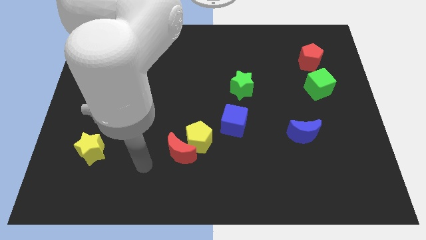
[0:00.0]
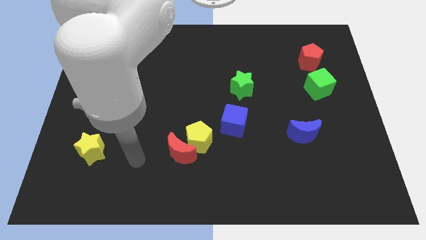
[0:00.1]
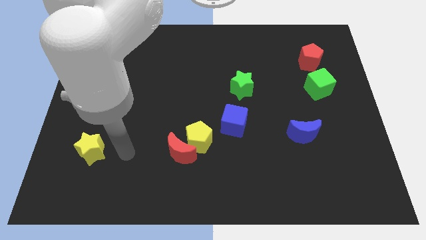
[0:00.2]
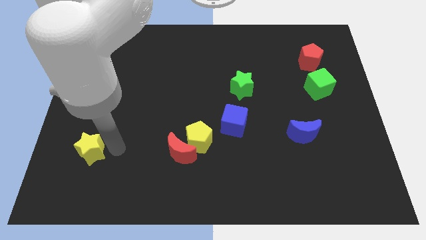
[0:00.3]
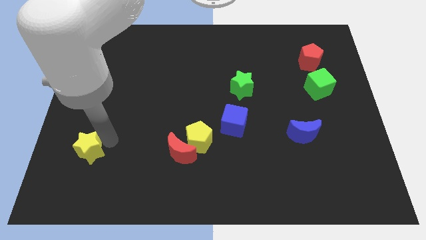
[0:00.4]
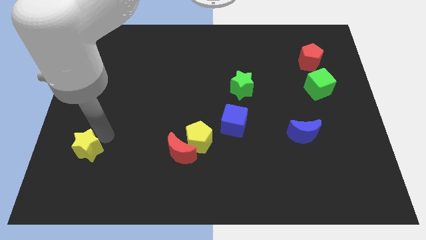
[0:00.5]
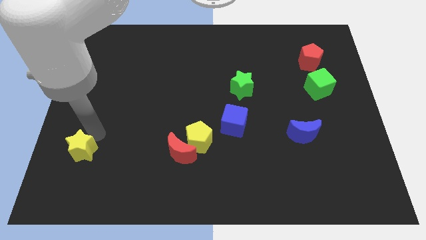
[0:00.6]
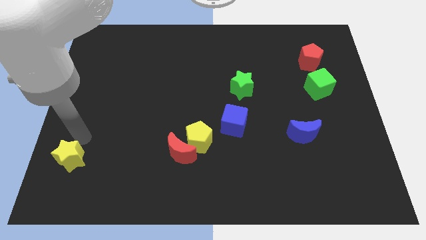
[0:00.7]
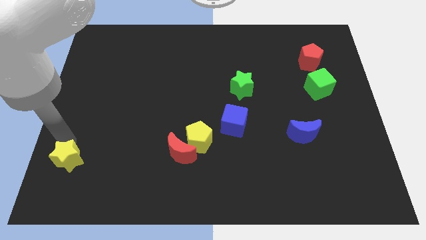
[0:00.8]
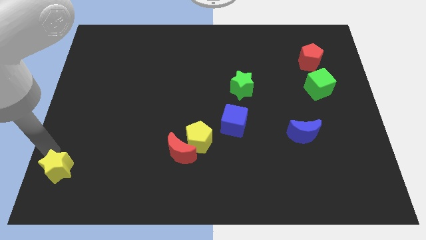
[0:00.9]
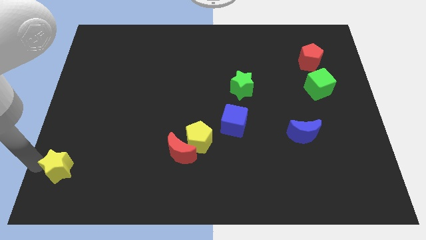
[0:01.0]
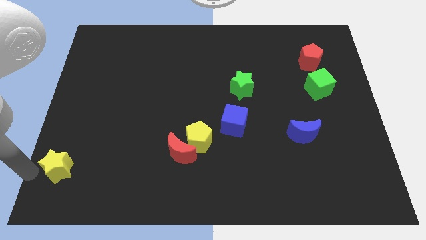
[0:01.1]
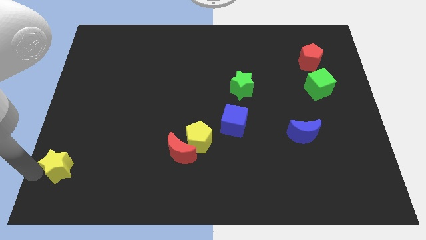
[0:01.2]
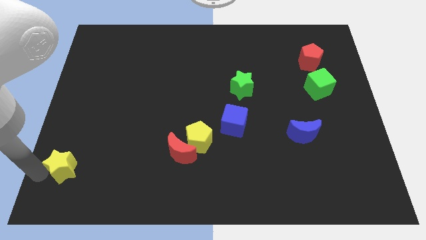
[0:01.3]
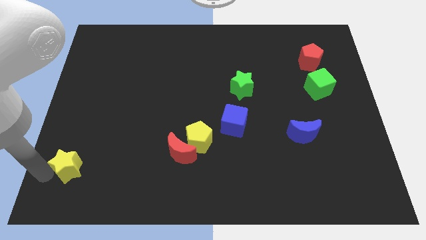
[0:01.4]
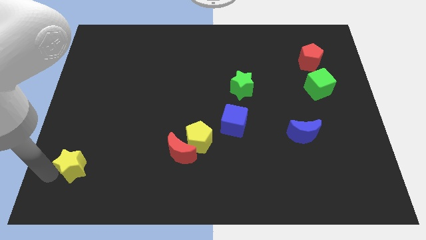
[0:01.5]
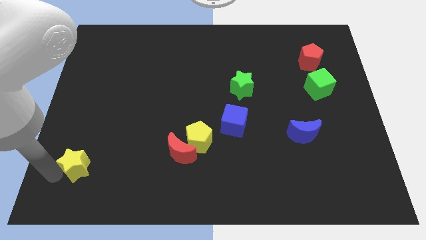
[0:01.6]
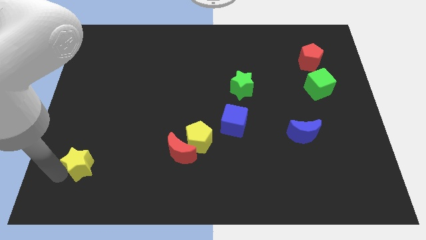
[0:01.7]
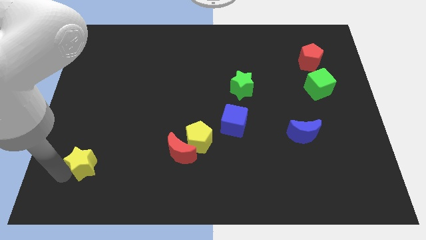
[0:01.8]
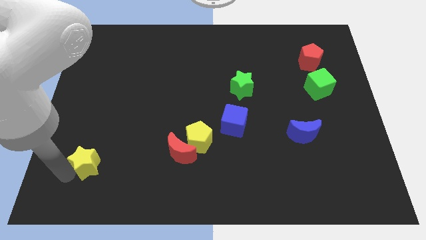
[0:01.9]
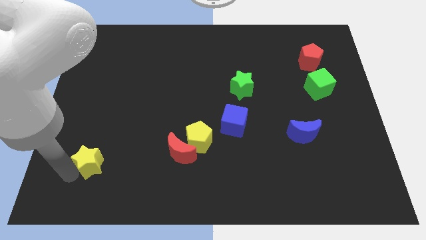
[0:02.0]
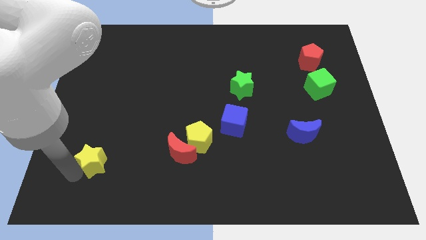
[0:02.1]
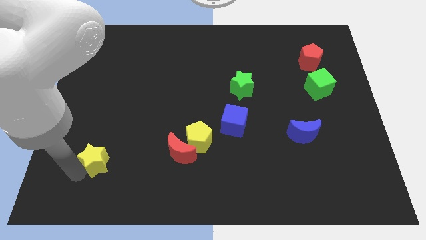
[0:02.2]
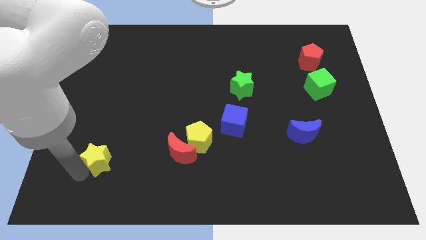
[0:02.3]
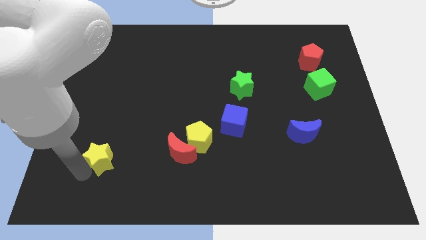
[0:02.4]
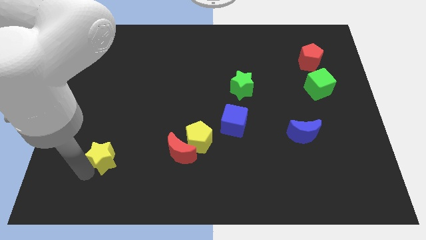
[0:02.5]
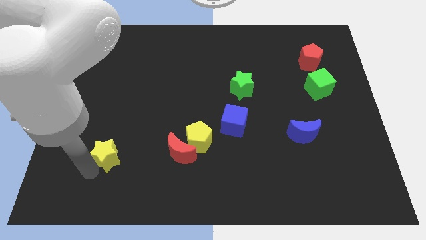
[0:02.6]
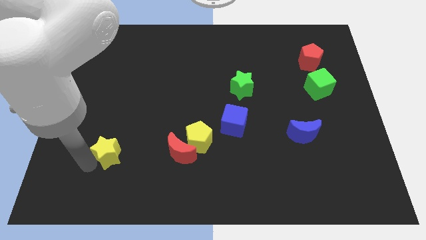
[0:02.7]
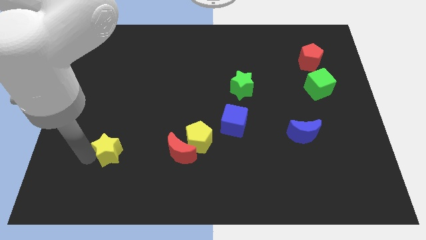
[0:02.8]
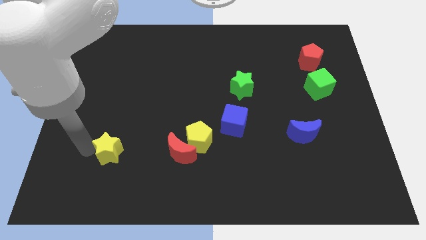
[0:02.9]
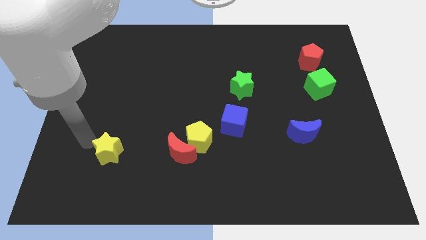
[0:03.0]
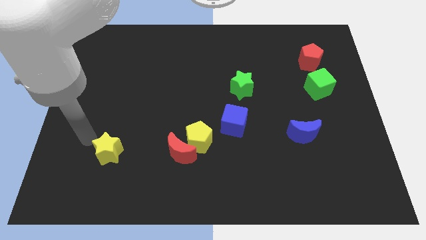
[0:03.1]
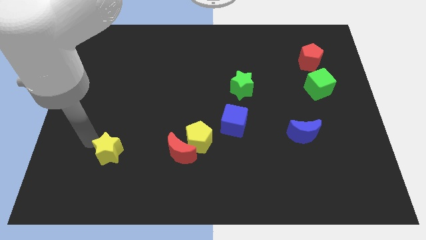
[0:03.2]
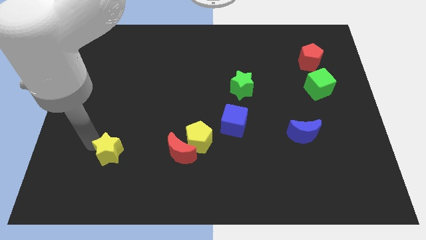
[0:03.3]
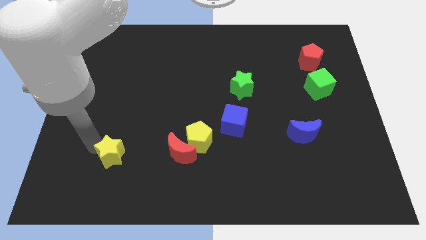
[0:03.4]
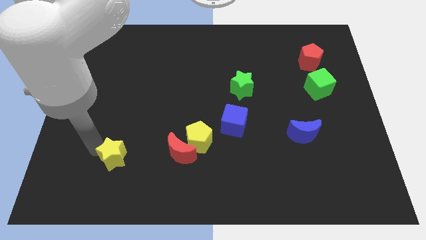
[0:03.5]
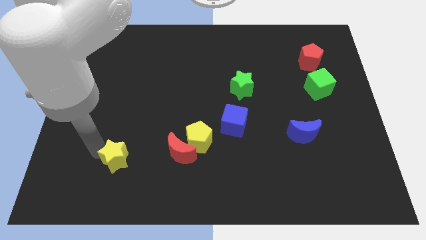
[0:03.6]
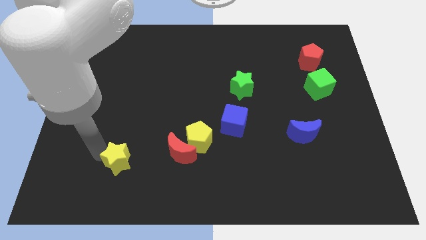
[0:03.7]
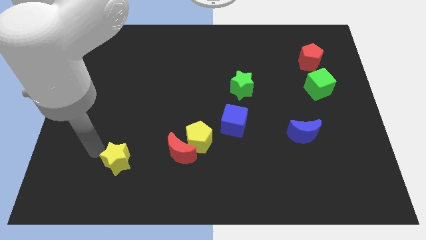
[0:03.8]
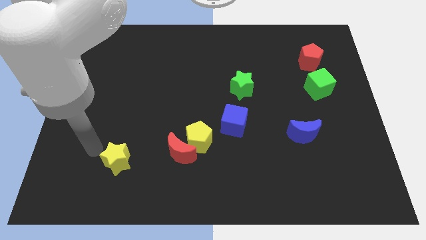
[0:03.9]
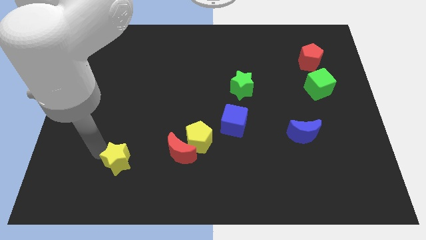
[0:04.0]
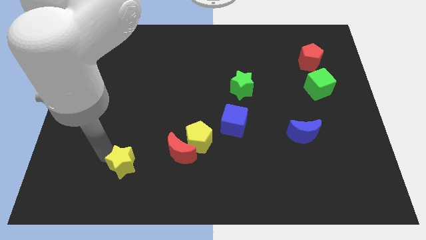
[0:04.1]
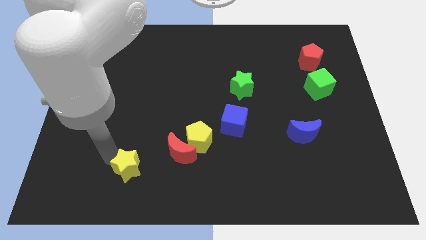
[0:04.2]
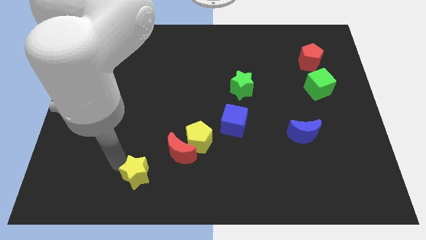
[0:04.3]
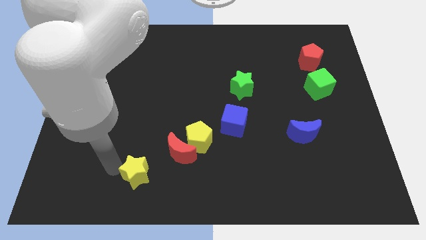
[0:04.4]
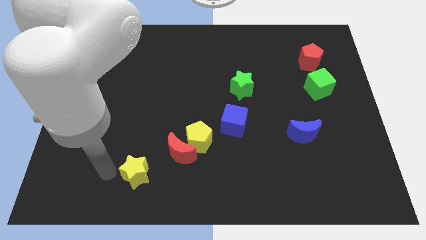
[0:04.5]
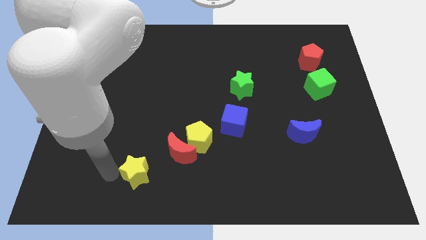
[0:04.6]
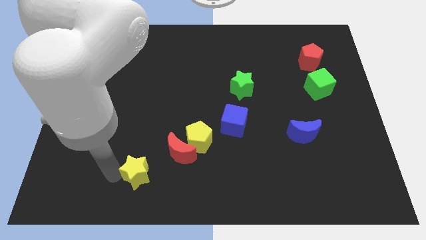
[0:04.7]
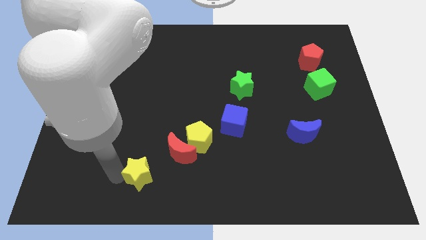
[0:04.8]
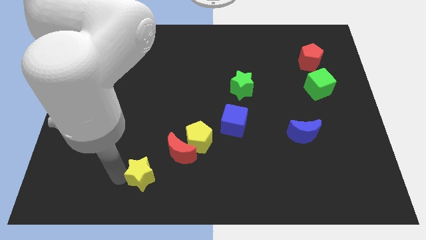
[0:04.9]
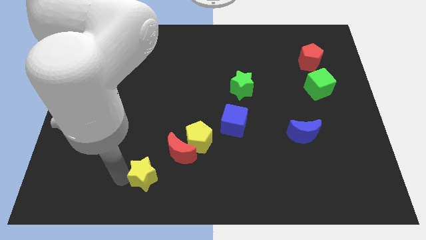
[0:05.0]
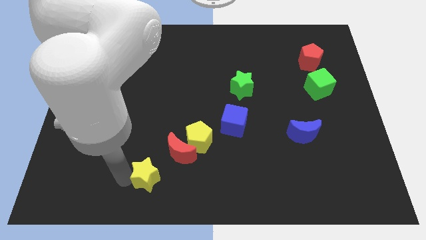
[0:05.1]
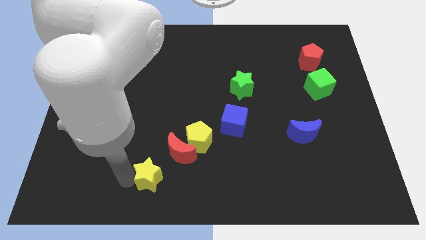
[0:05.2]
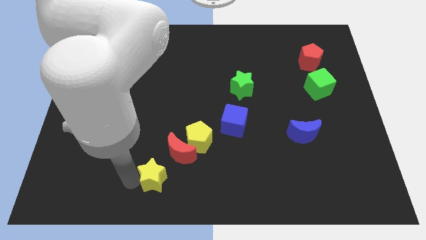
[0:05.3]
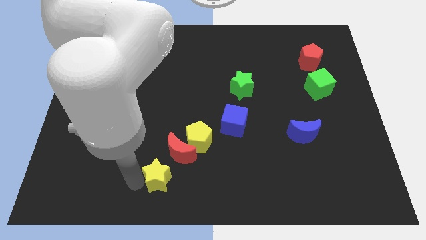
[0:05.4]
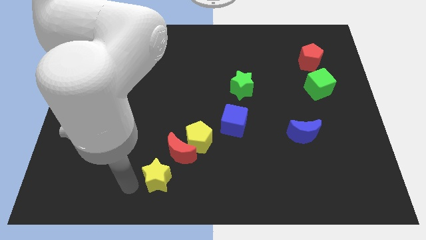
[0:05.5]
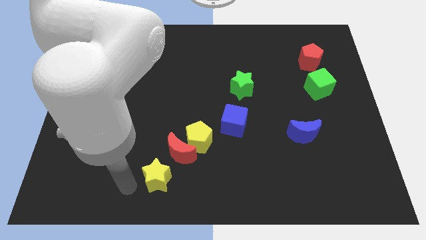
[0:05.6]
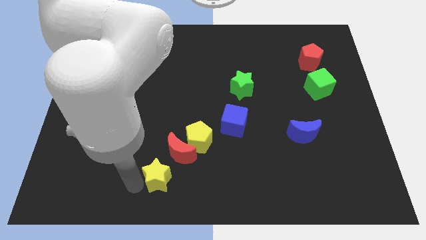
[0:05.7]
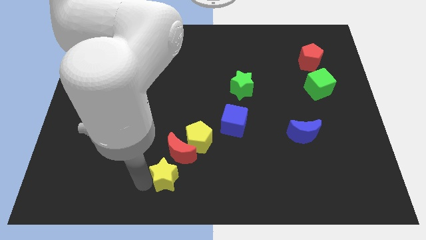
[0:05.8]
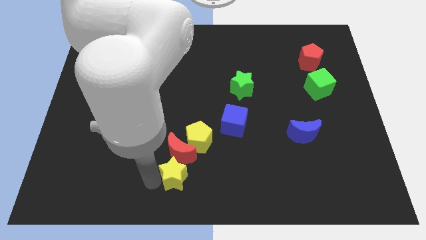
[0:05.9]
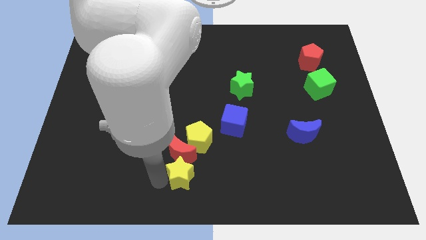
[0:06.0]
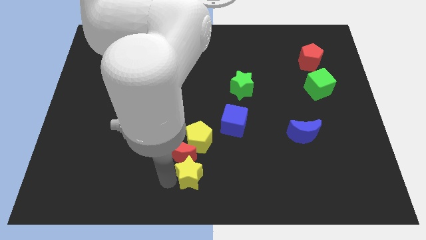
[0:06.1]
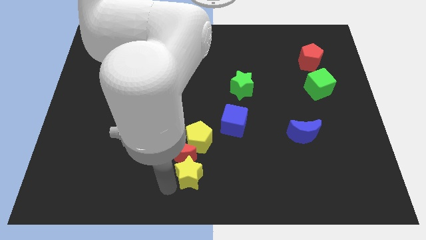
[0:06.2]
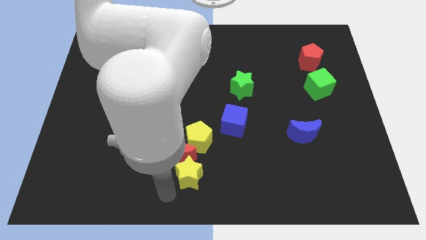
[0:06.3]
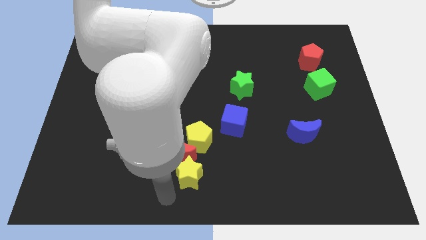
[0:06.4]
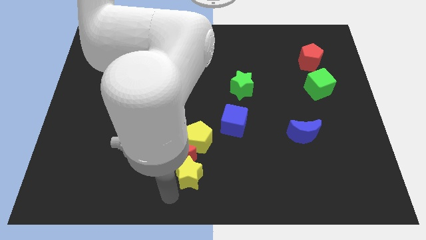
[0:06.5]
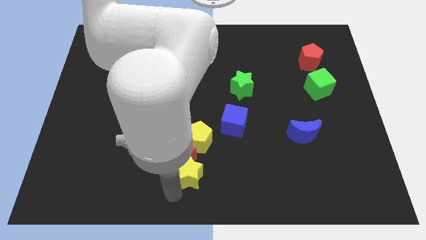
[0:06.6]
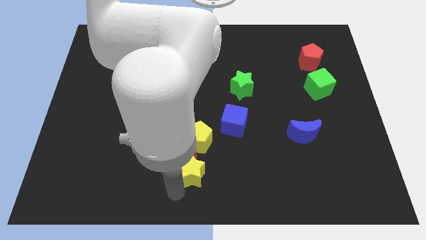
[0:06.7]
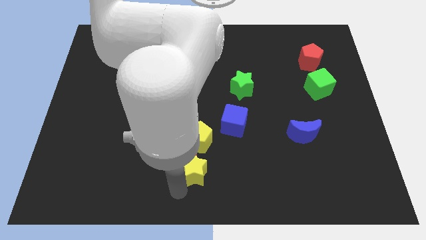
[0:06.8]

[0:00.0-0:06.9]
push the yellow star to the right of the red moon

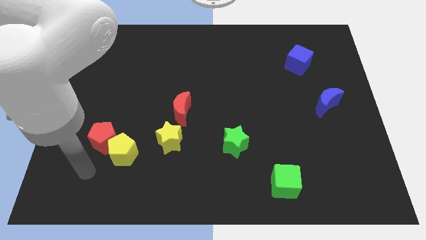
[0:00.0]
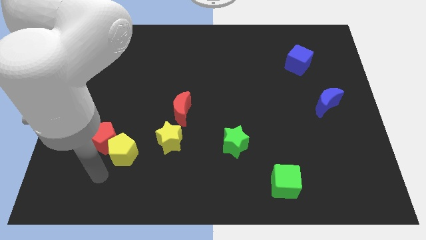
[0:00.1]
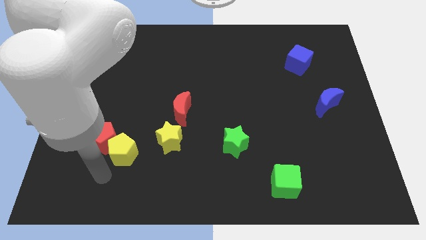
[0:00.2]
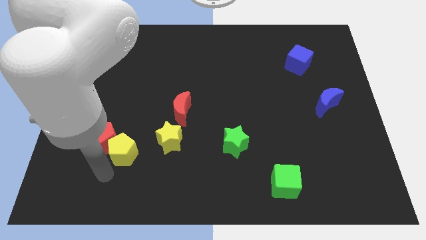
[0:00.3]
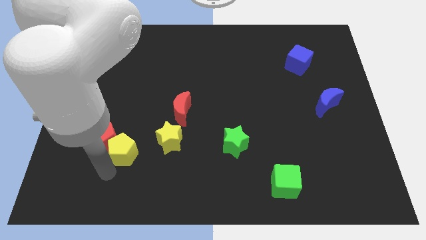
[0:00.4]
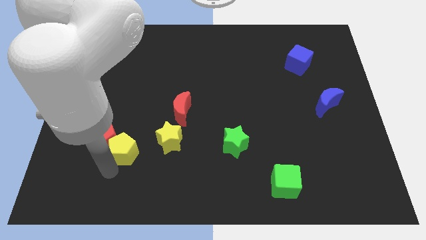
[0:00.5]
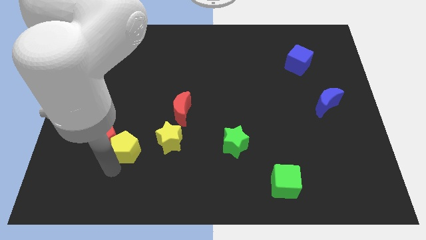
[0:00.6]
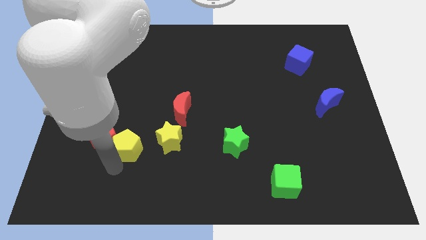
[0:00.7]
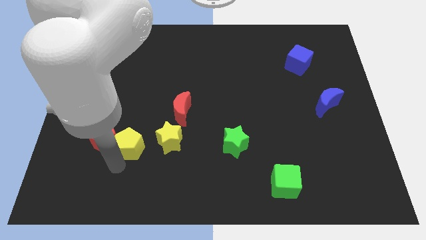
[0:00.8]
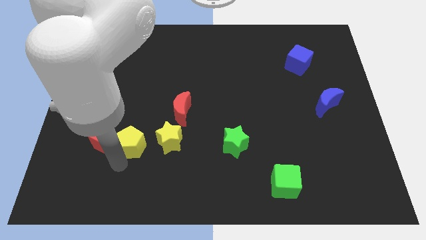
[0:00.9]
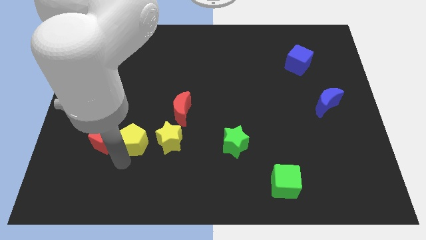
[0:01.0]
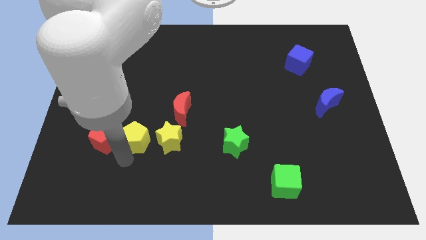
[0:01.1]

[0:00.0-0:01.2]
push the yellow pentagon to the top left side of the yellow star
